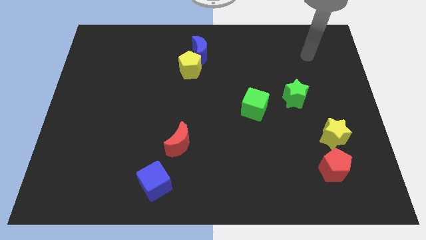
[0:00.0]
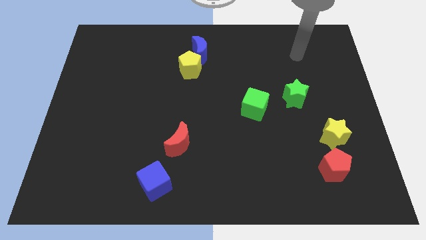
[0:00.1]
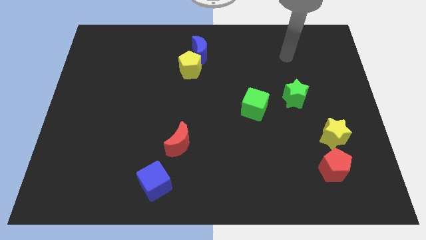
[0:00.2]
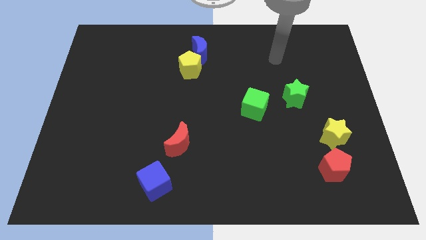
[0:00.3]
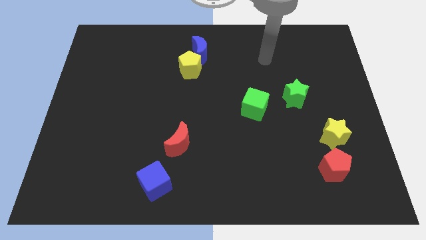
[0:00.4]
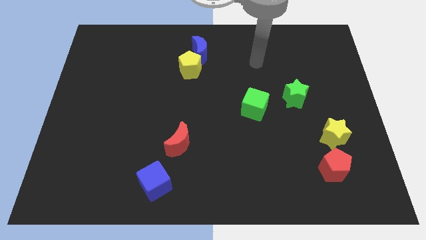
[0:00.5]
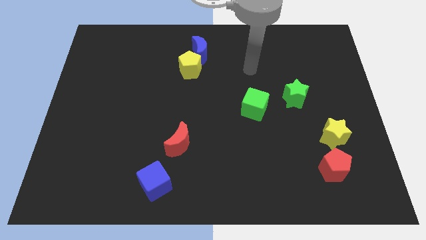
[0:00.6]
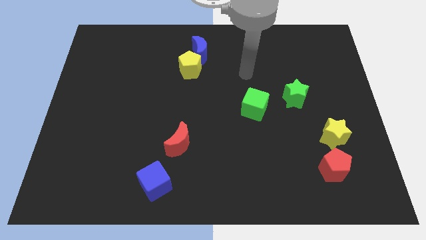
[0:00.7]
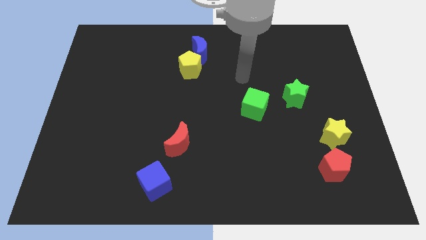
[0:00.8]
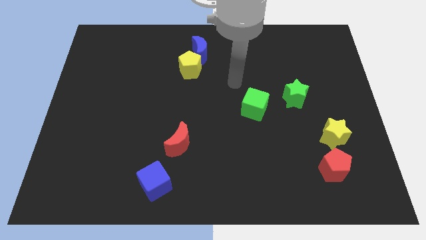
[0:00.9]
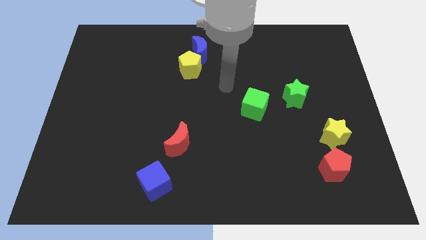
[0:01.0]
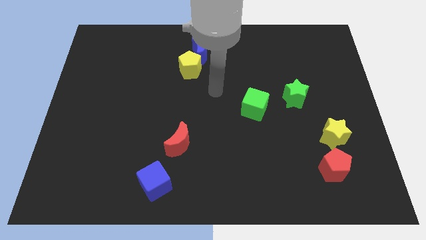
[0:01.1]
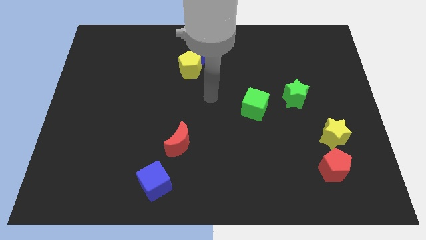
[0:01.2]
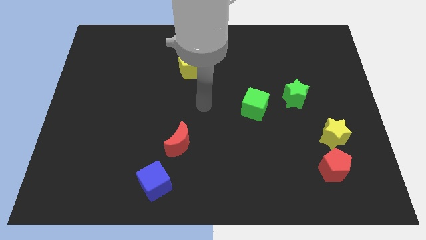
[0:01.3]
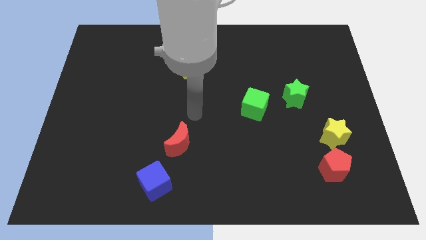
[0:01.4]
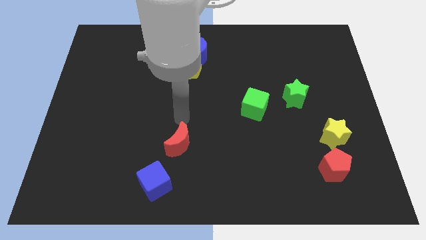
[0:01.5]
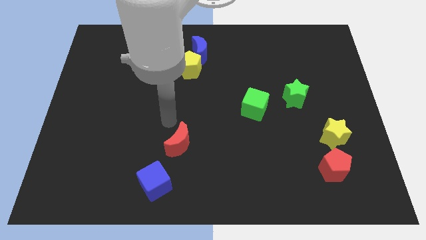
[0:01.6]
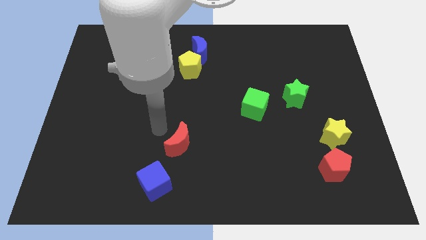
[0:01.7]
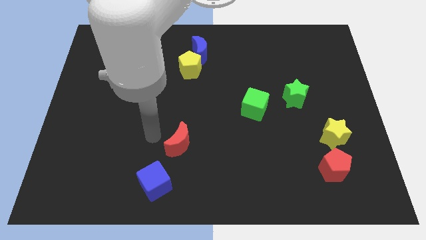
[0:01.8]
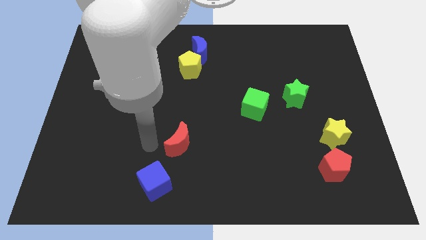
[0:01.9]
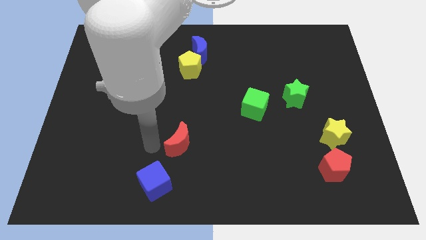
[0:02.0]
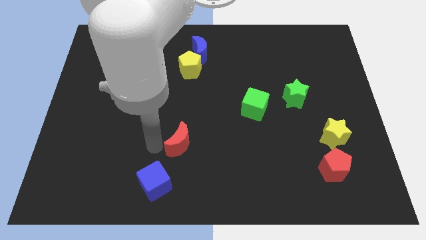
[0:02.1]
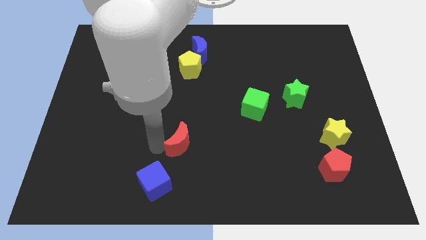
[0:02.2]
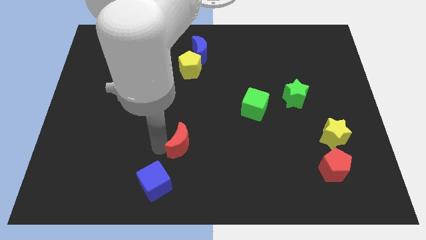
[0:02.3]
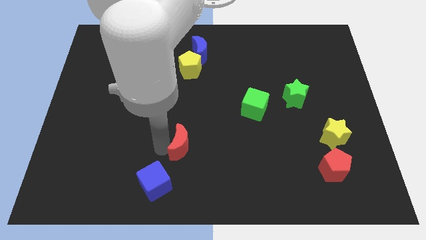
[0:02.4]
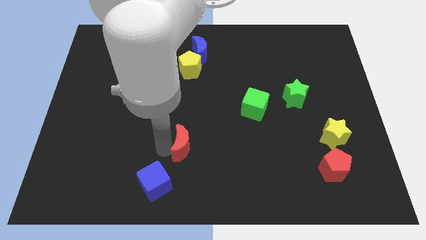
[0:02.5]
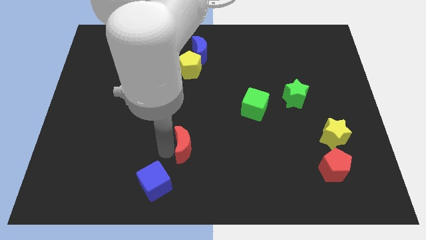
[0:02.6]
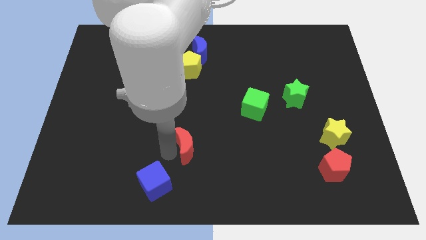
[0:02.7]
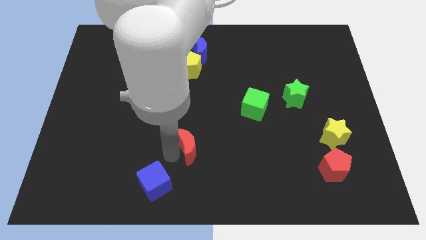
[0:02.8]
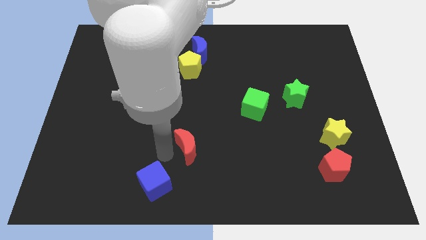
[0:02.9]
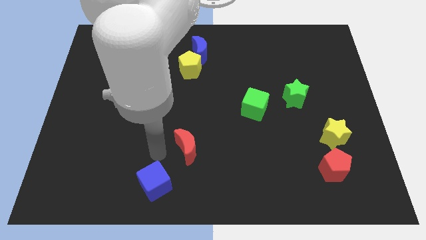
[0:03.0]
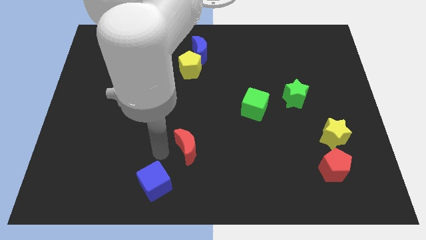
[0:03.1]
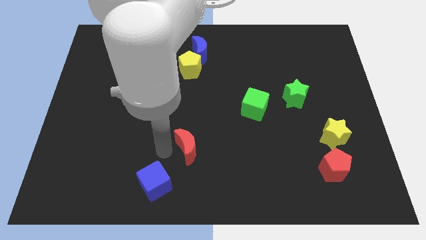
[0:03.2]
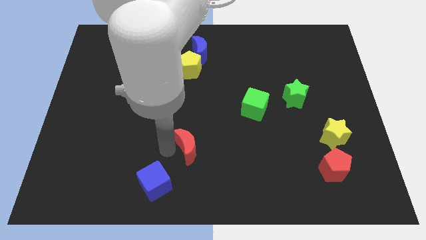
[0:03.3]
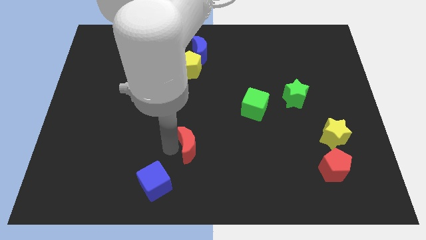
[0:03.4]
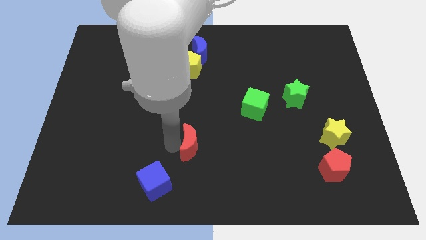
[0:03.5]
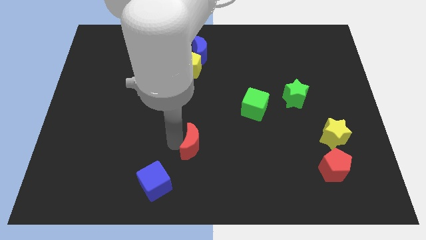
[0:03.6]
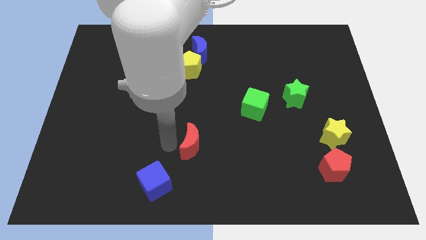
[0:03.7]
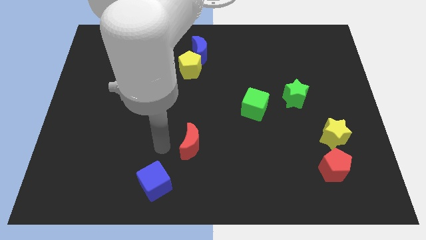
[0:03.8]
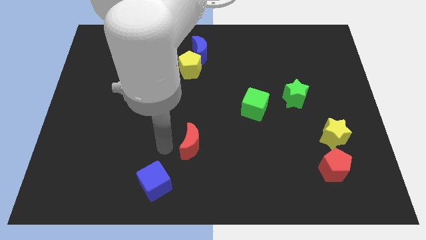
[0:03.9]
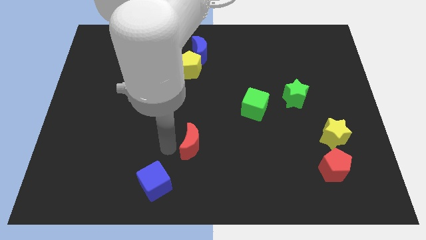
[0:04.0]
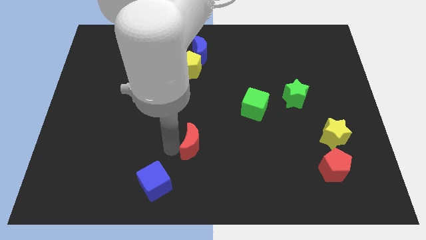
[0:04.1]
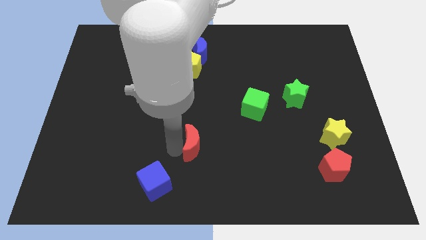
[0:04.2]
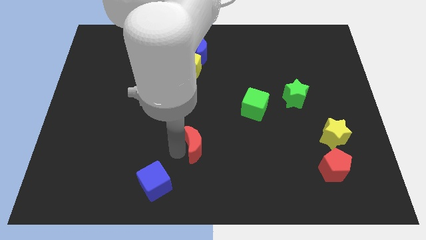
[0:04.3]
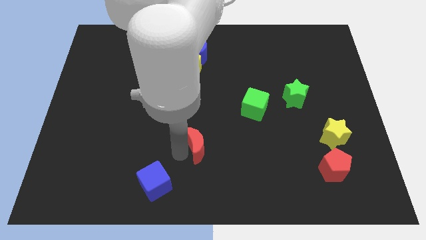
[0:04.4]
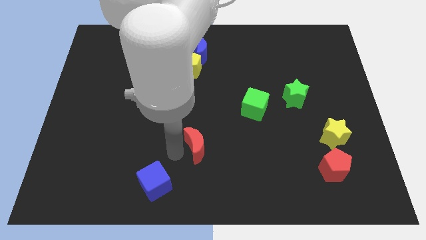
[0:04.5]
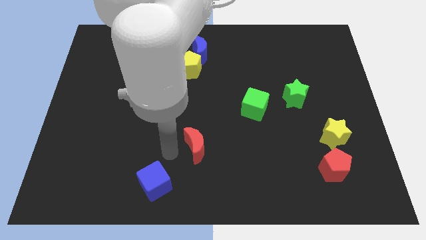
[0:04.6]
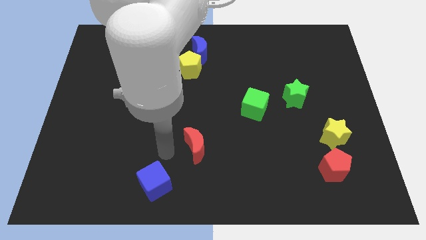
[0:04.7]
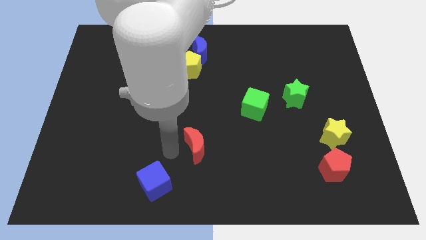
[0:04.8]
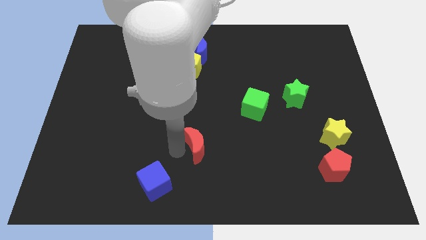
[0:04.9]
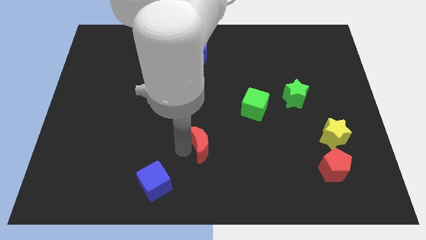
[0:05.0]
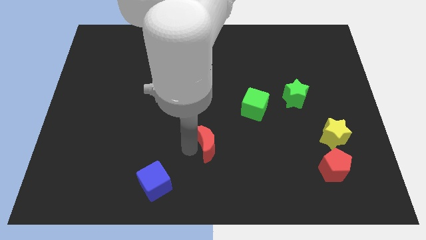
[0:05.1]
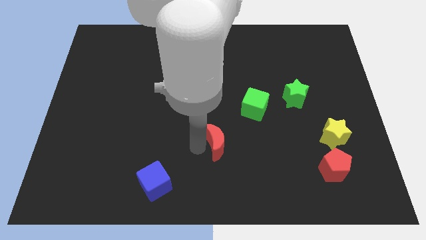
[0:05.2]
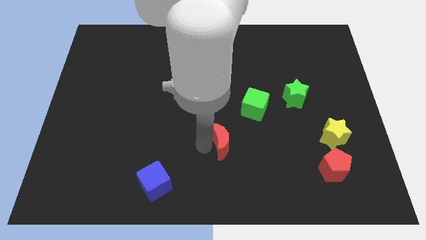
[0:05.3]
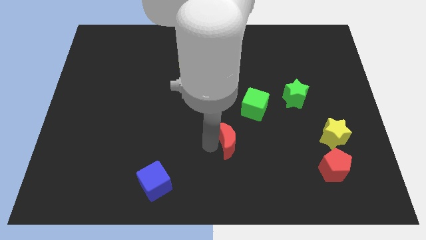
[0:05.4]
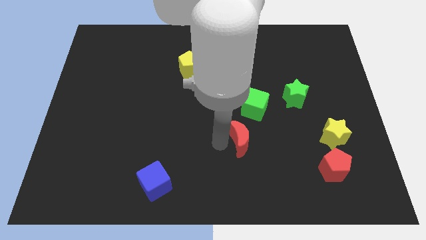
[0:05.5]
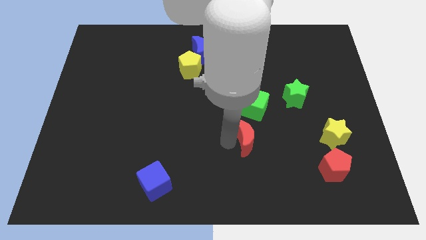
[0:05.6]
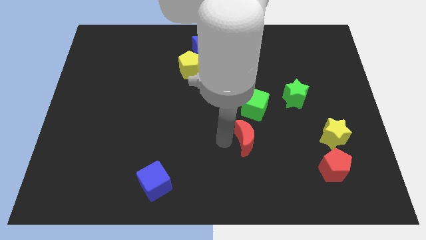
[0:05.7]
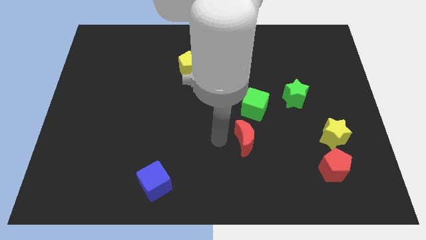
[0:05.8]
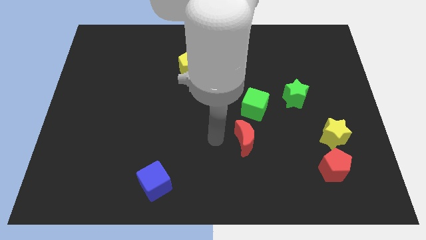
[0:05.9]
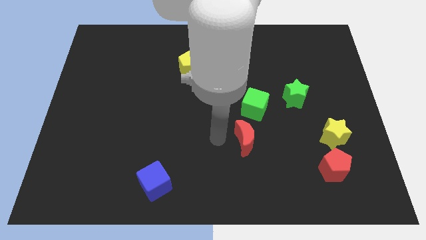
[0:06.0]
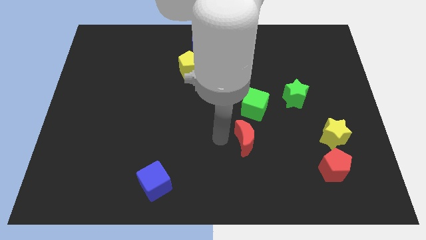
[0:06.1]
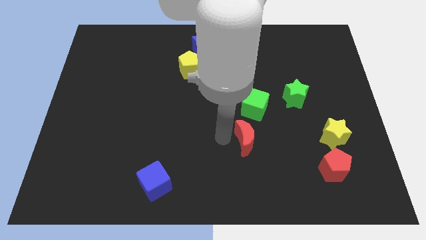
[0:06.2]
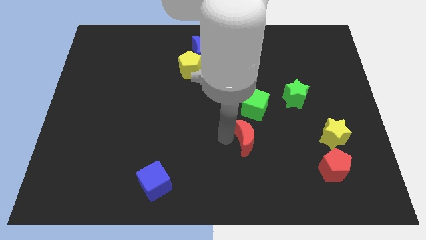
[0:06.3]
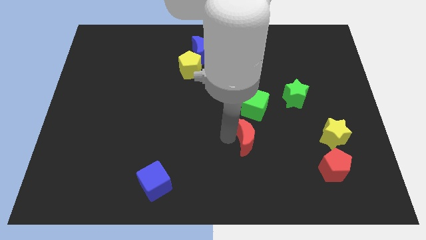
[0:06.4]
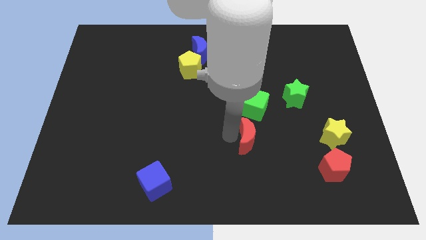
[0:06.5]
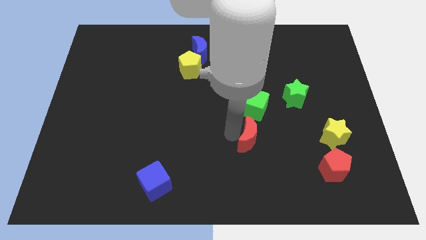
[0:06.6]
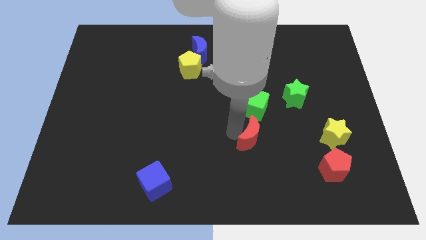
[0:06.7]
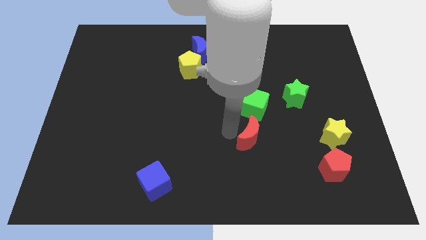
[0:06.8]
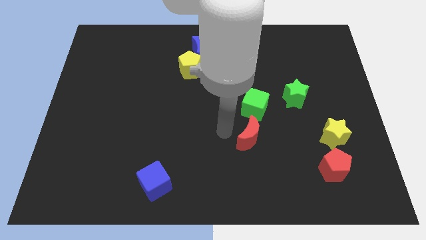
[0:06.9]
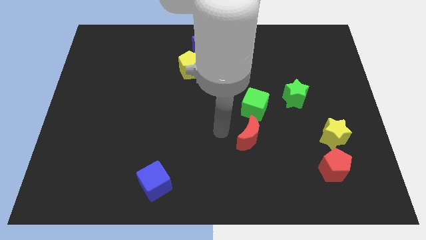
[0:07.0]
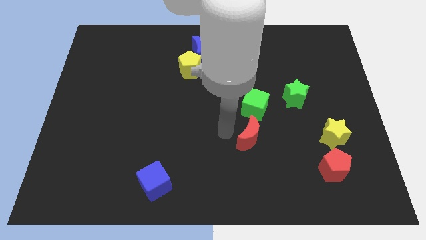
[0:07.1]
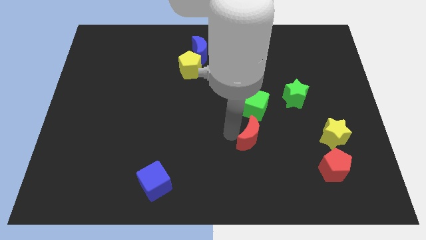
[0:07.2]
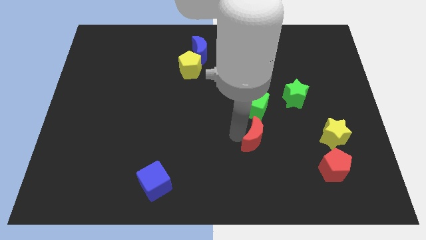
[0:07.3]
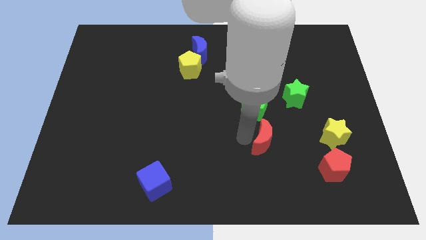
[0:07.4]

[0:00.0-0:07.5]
move the red moon left of the yellow star

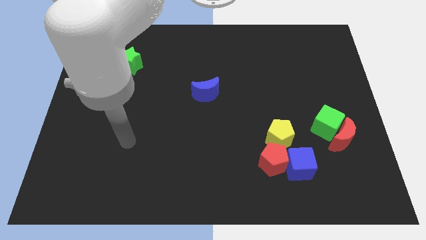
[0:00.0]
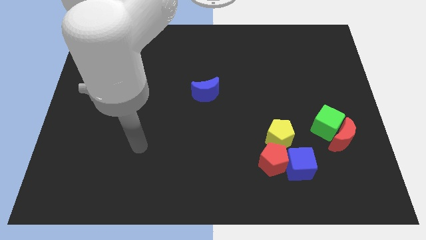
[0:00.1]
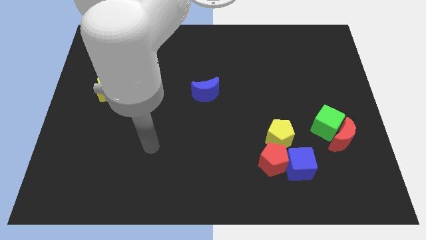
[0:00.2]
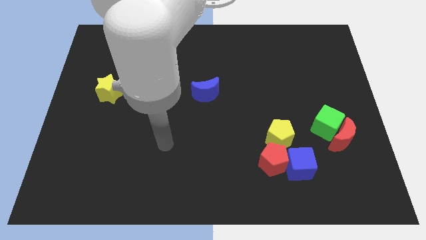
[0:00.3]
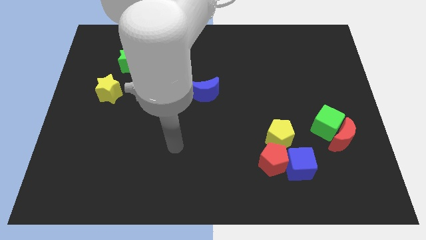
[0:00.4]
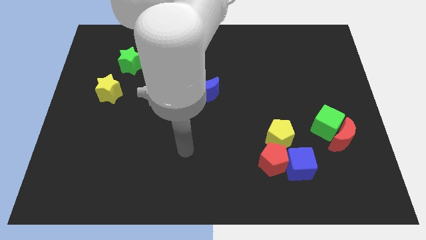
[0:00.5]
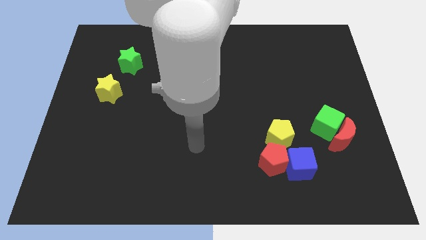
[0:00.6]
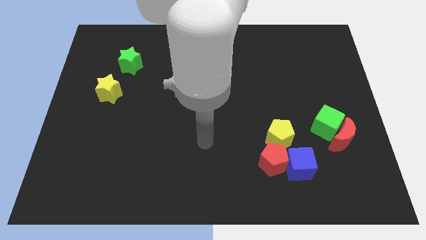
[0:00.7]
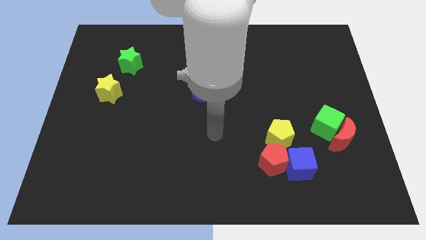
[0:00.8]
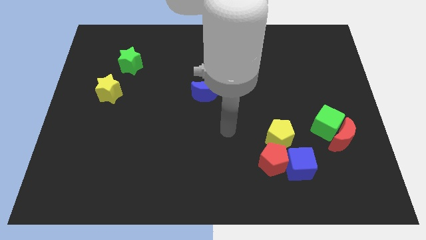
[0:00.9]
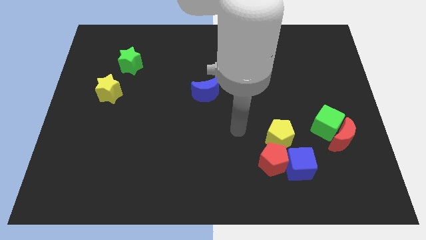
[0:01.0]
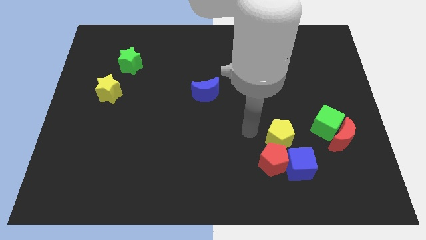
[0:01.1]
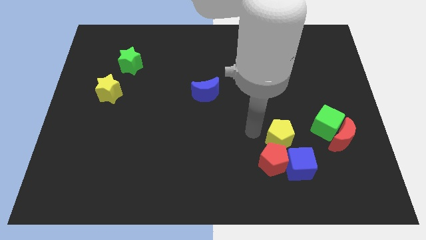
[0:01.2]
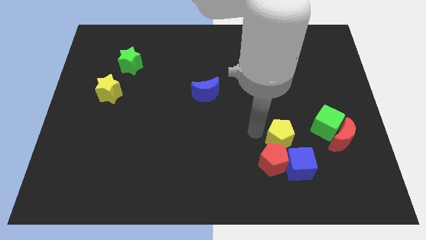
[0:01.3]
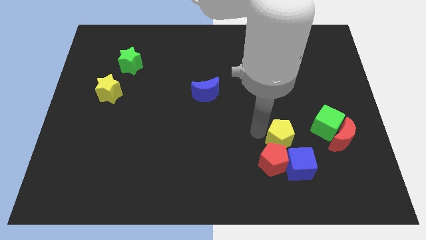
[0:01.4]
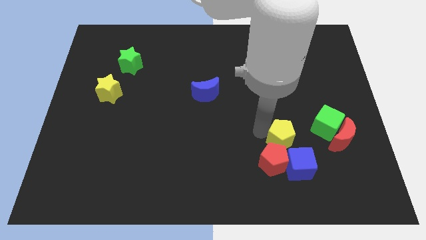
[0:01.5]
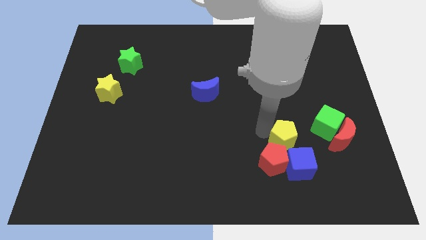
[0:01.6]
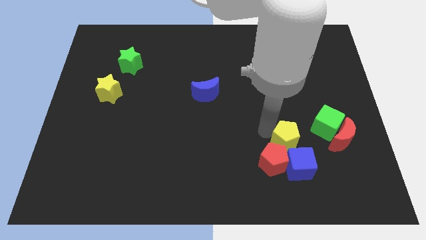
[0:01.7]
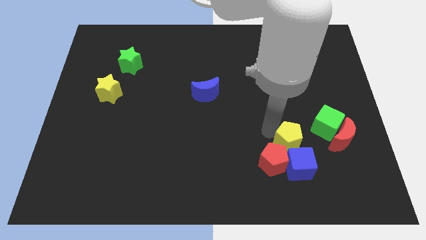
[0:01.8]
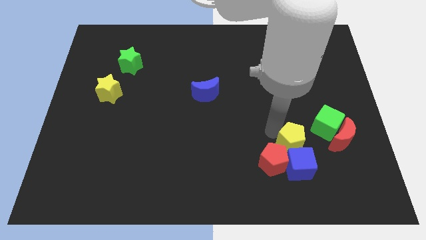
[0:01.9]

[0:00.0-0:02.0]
put the yellow pentagon to the top right of the blue cube
